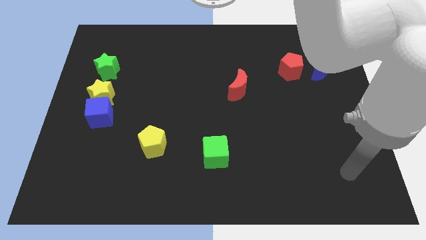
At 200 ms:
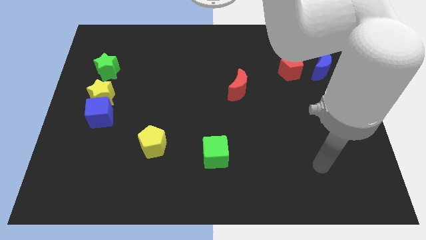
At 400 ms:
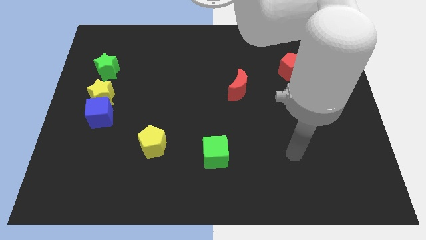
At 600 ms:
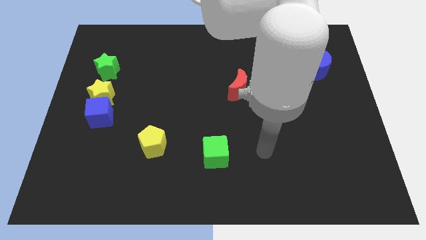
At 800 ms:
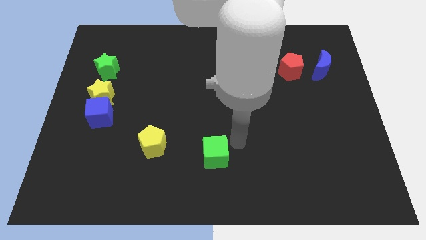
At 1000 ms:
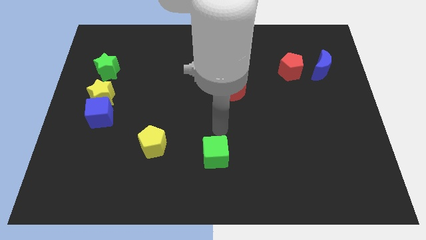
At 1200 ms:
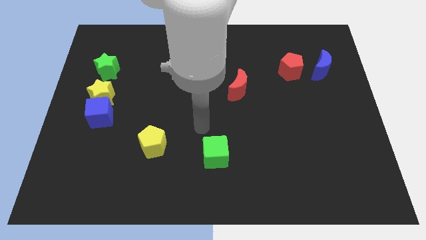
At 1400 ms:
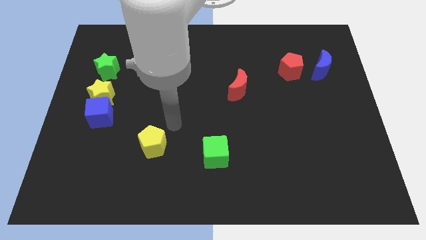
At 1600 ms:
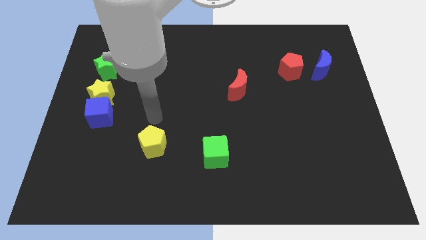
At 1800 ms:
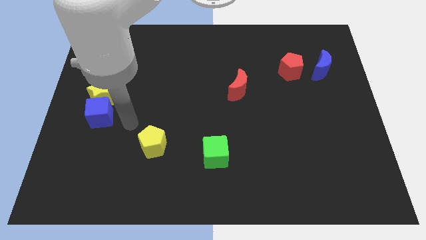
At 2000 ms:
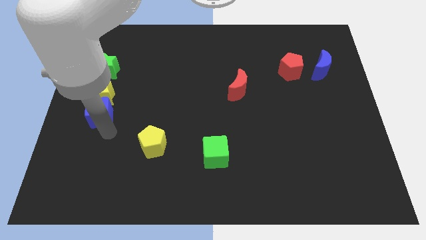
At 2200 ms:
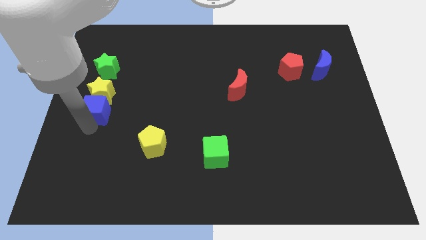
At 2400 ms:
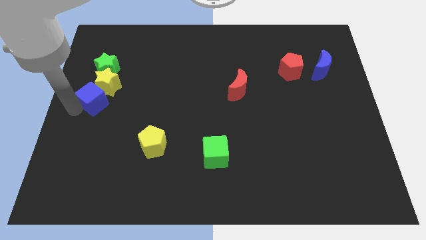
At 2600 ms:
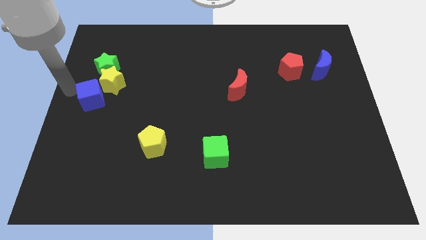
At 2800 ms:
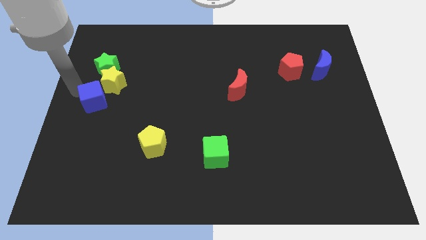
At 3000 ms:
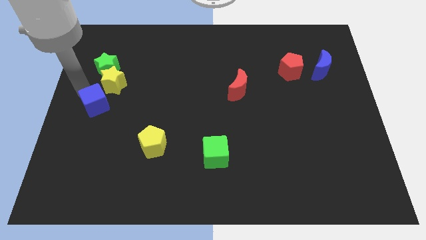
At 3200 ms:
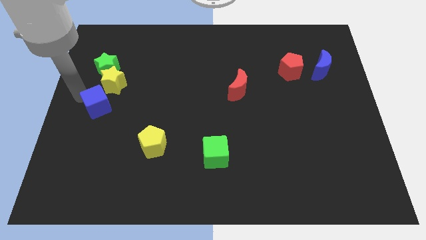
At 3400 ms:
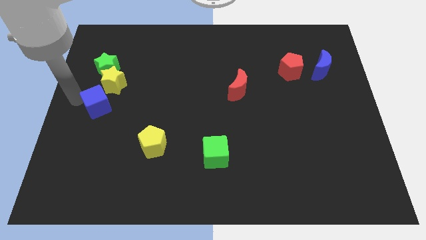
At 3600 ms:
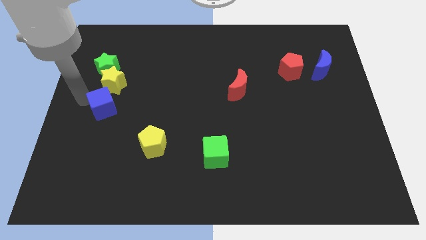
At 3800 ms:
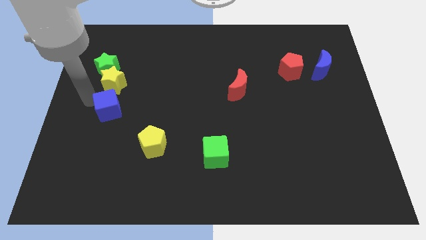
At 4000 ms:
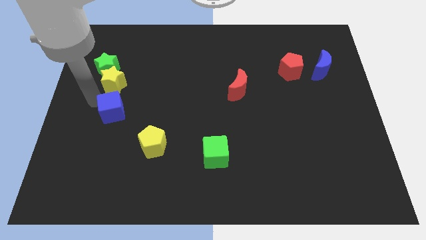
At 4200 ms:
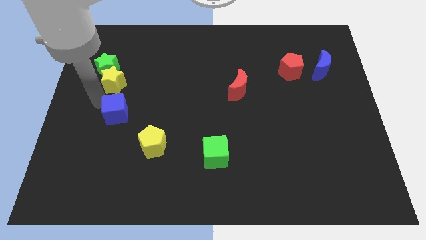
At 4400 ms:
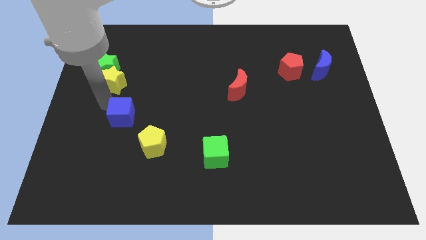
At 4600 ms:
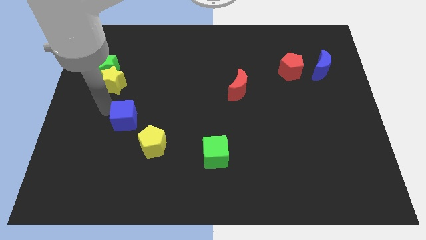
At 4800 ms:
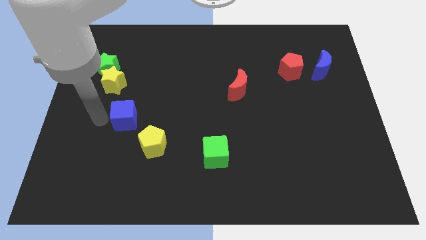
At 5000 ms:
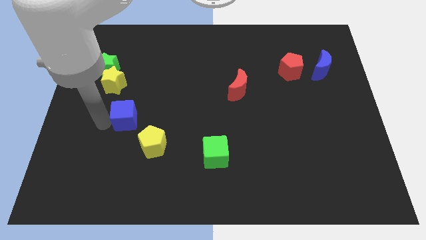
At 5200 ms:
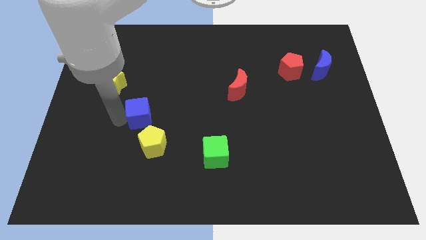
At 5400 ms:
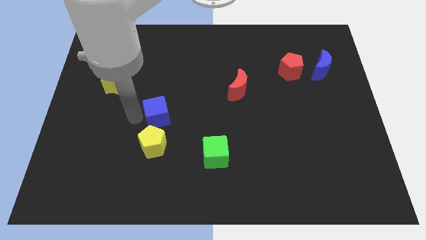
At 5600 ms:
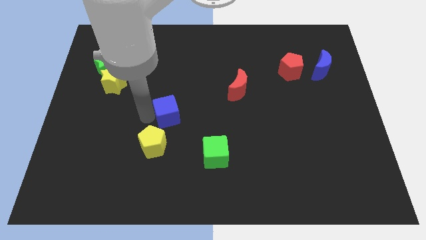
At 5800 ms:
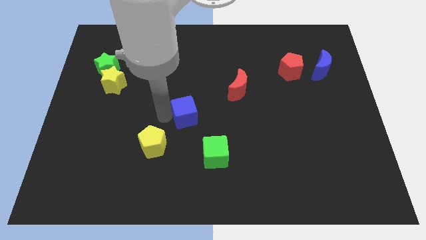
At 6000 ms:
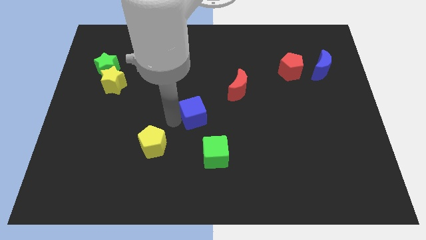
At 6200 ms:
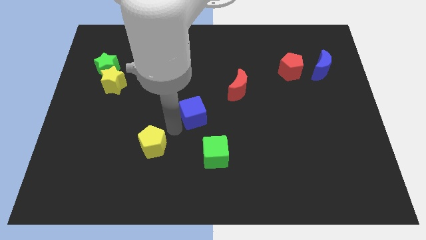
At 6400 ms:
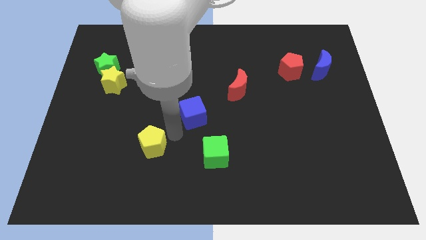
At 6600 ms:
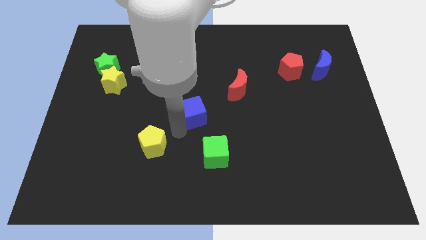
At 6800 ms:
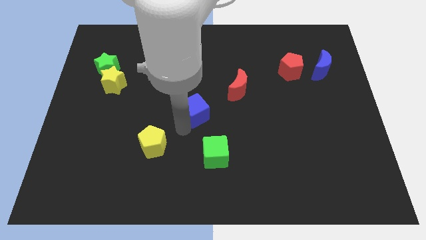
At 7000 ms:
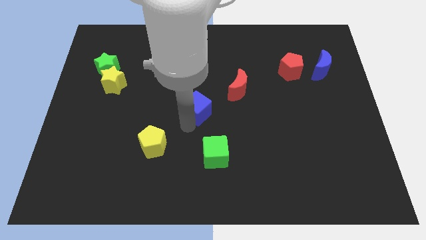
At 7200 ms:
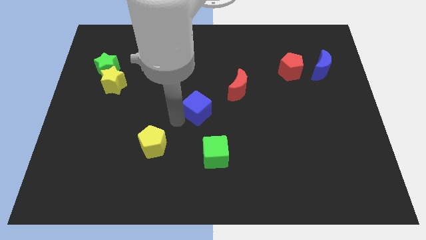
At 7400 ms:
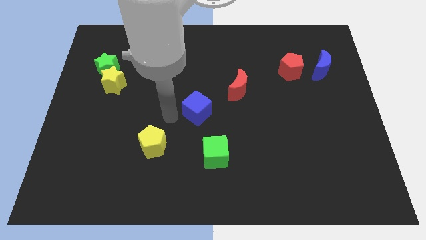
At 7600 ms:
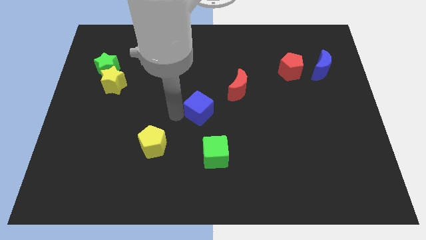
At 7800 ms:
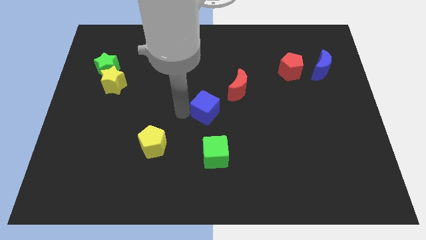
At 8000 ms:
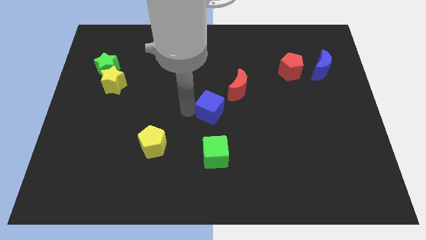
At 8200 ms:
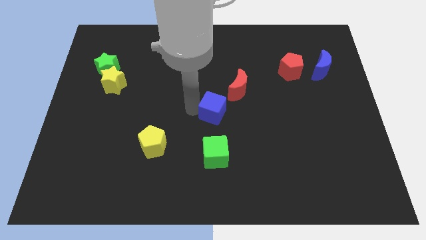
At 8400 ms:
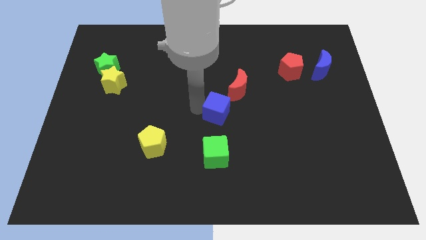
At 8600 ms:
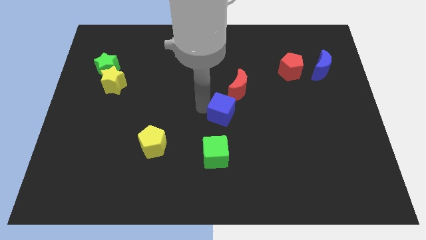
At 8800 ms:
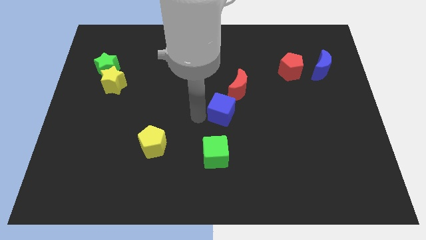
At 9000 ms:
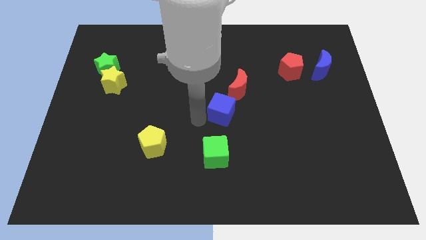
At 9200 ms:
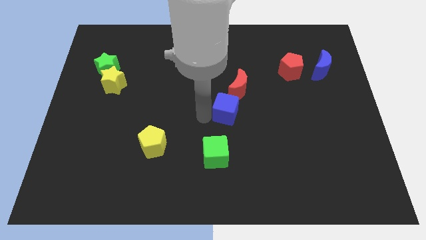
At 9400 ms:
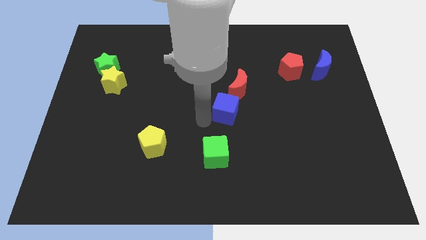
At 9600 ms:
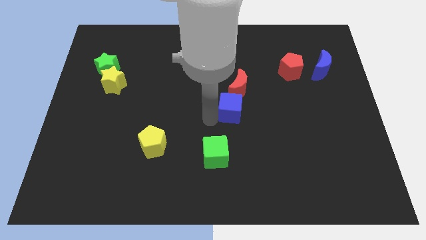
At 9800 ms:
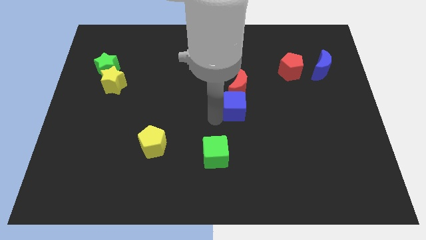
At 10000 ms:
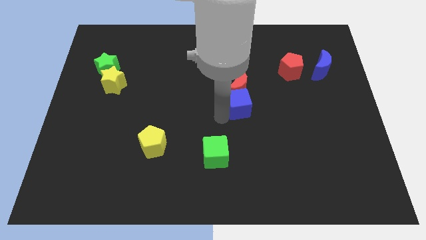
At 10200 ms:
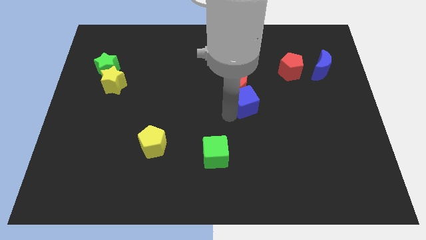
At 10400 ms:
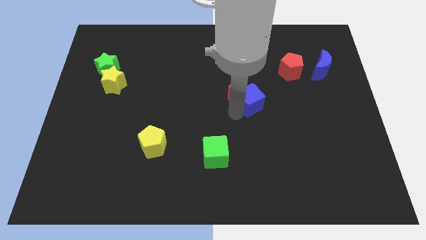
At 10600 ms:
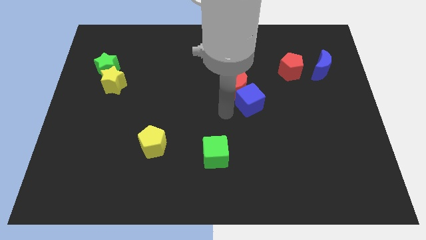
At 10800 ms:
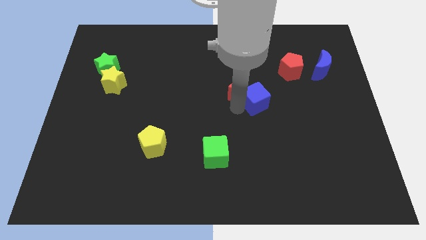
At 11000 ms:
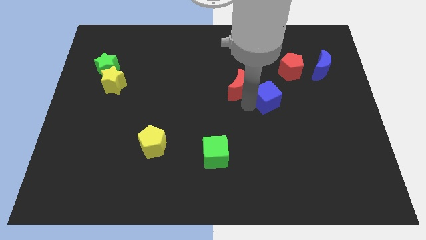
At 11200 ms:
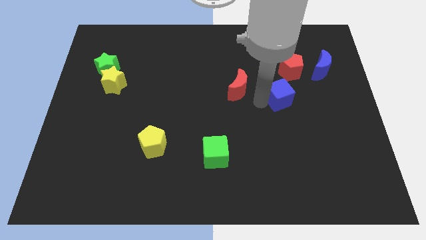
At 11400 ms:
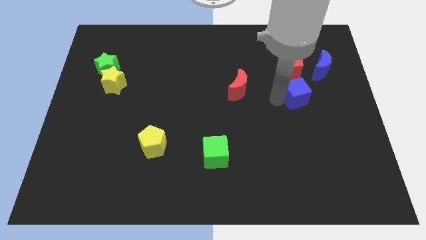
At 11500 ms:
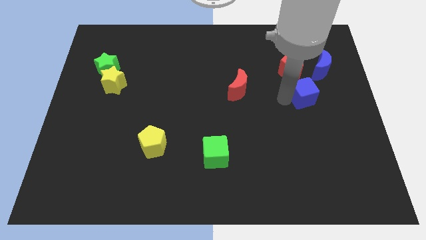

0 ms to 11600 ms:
slide the blue cube diagonally down and to the right of the red pentagon

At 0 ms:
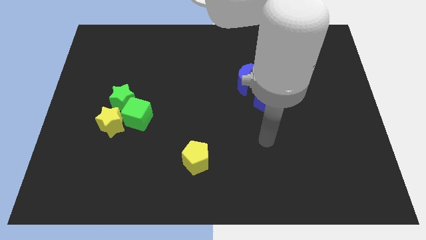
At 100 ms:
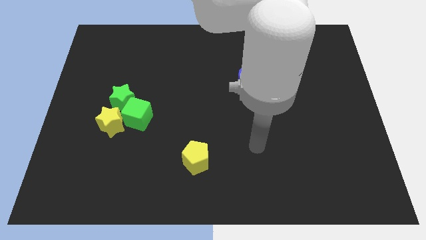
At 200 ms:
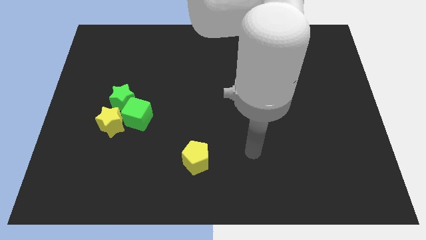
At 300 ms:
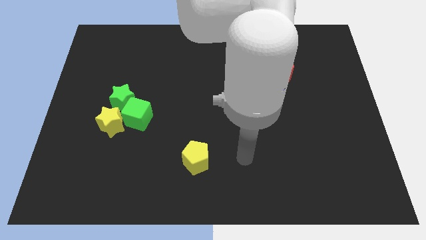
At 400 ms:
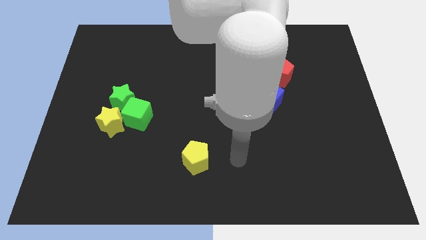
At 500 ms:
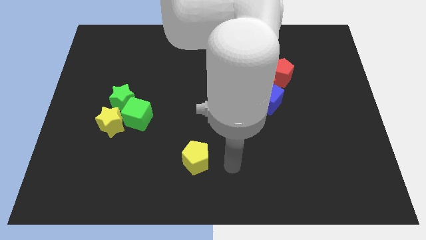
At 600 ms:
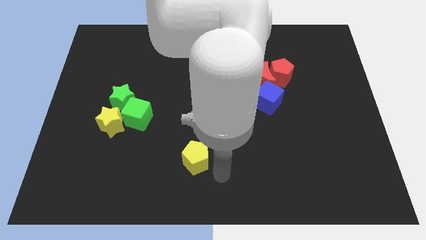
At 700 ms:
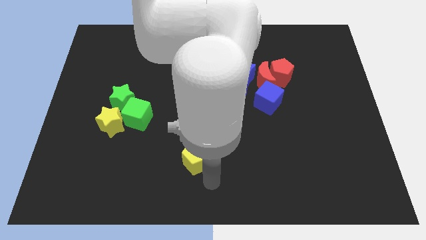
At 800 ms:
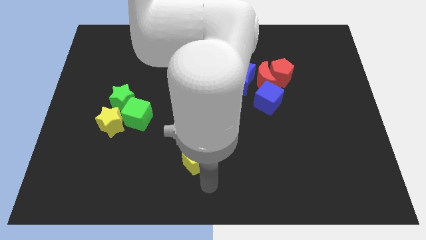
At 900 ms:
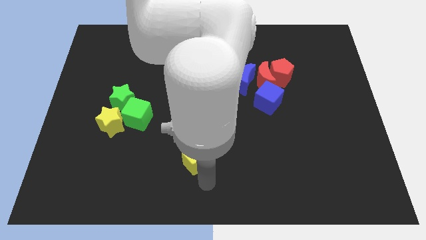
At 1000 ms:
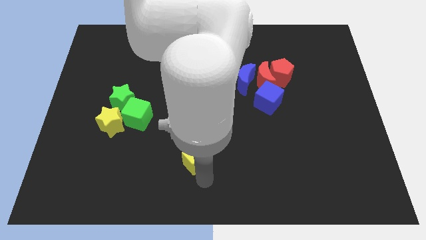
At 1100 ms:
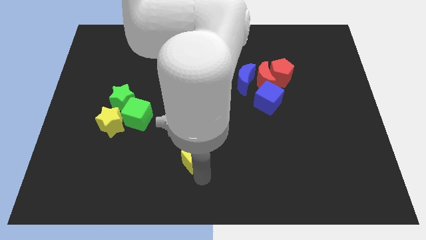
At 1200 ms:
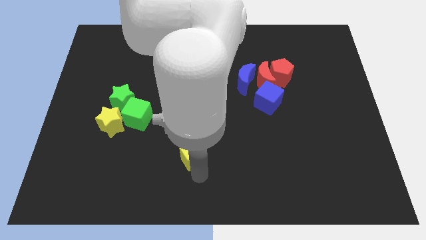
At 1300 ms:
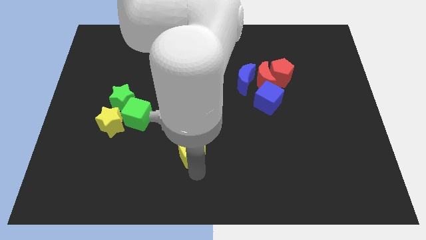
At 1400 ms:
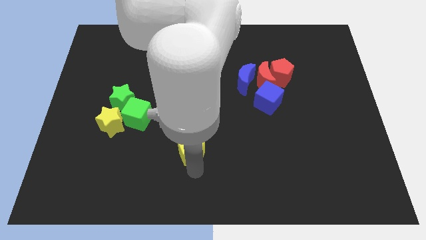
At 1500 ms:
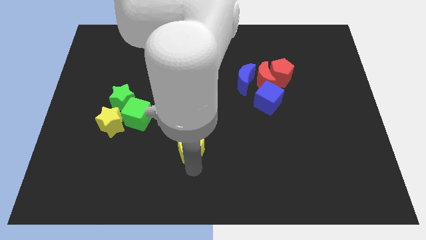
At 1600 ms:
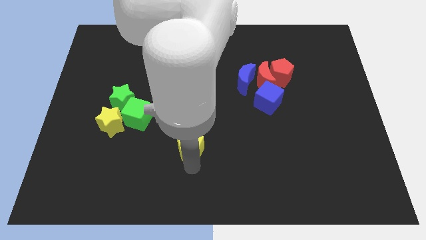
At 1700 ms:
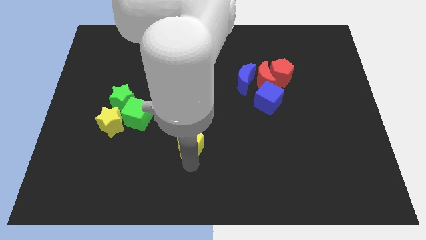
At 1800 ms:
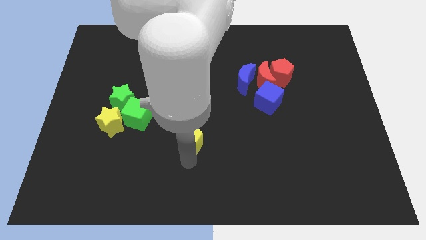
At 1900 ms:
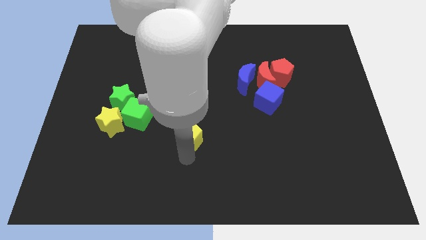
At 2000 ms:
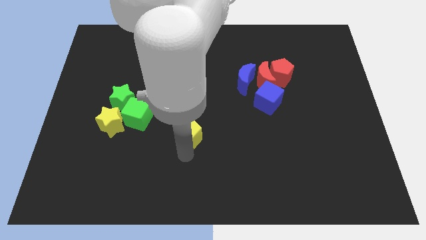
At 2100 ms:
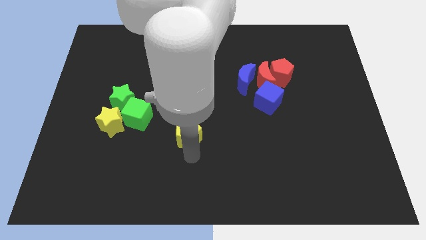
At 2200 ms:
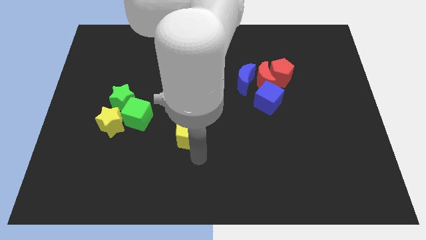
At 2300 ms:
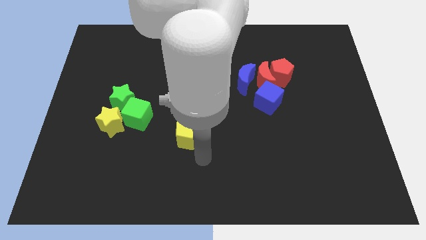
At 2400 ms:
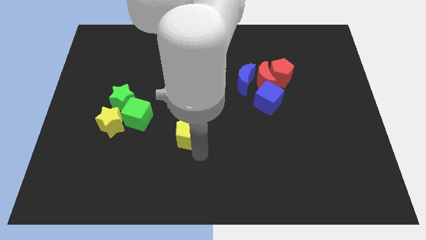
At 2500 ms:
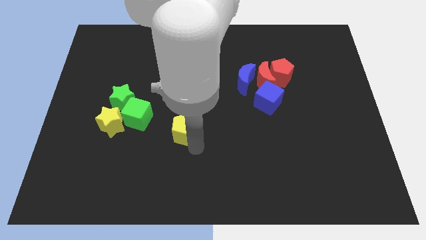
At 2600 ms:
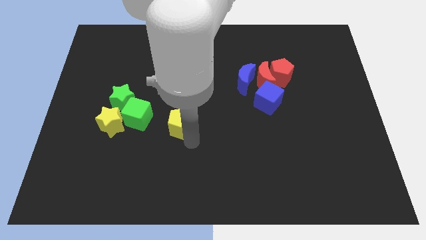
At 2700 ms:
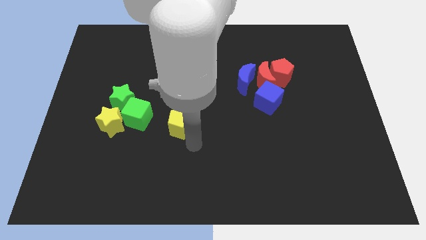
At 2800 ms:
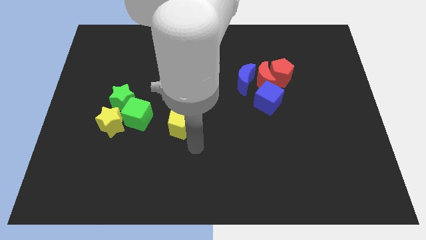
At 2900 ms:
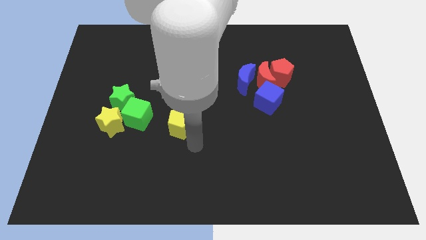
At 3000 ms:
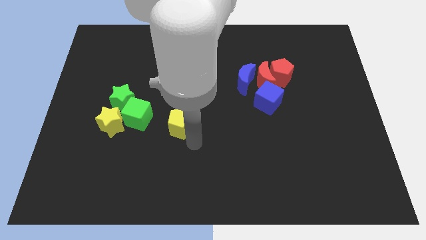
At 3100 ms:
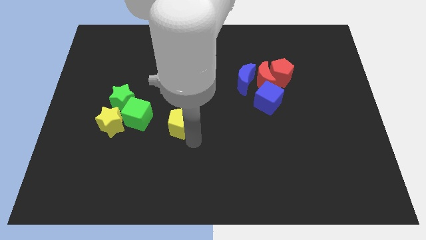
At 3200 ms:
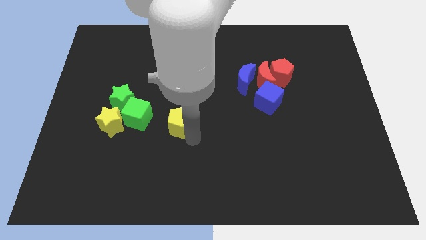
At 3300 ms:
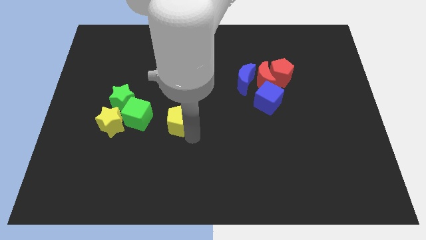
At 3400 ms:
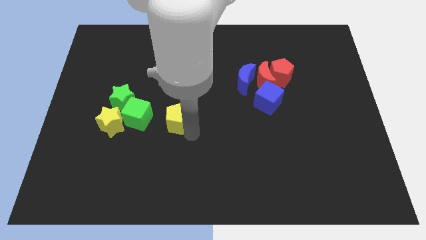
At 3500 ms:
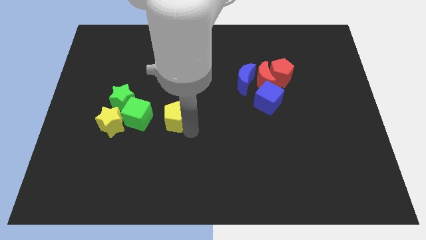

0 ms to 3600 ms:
push the yellow pentagon to the right of the green star
